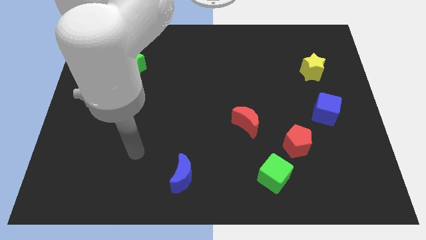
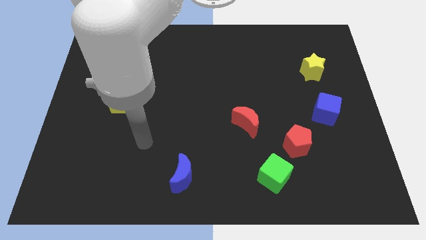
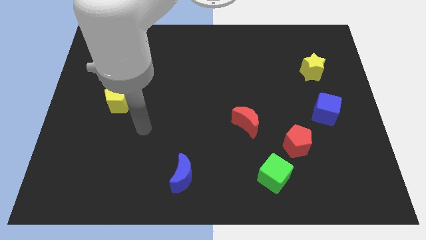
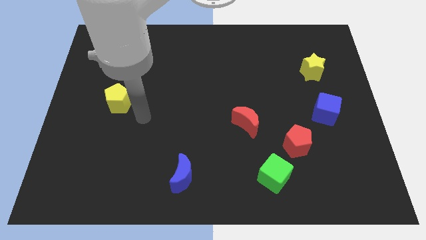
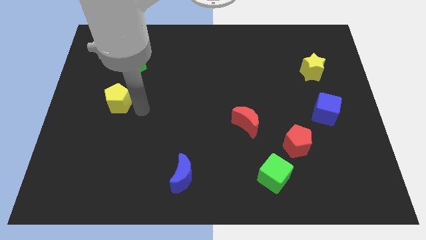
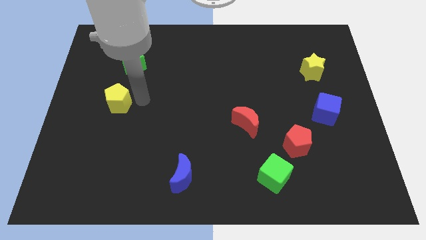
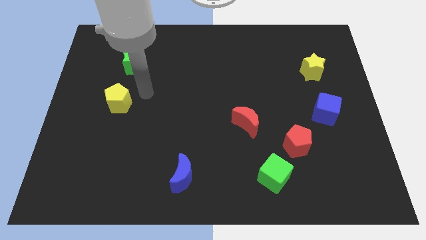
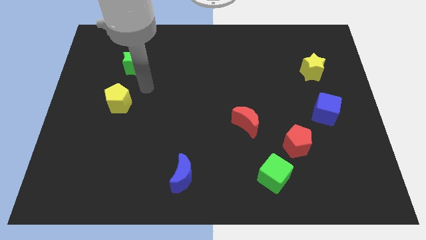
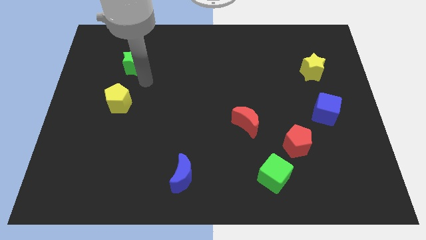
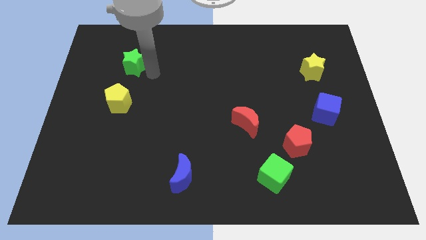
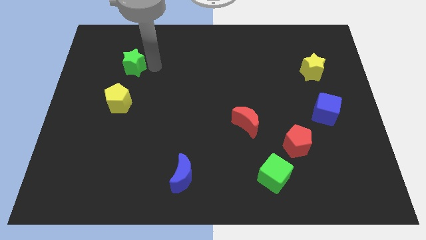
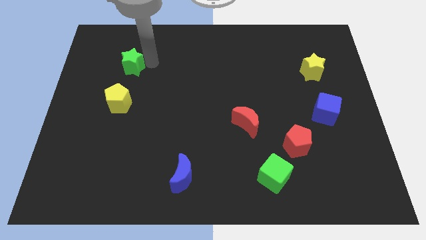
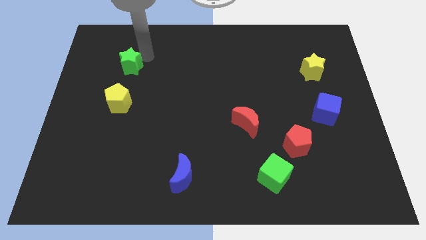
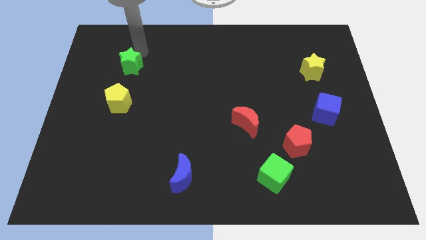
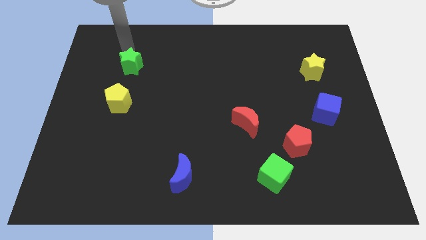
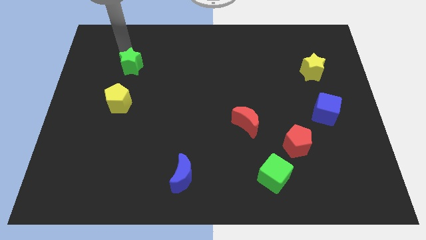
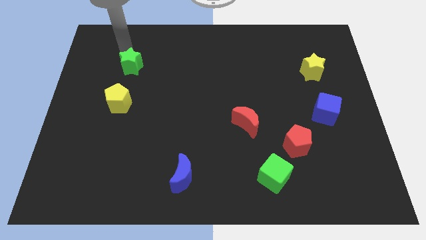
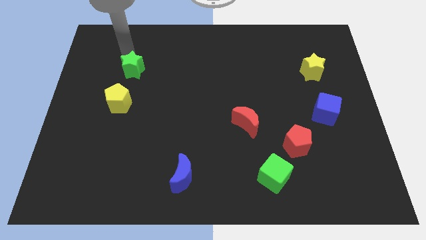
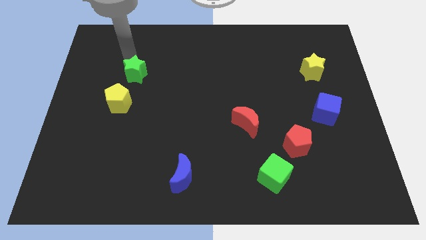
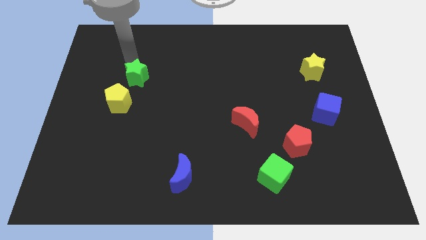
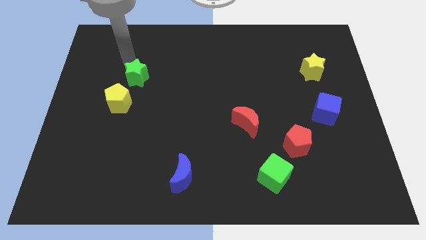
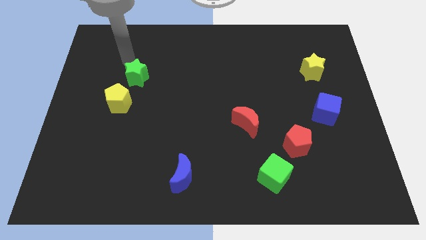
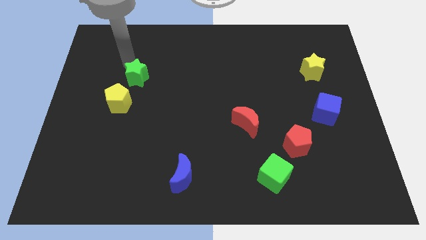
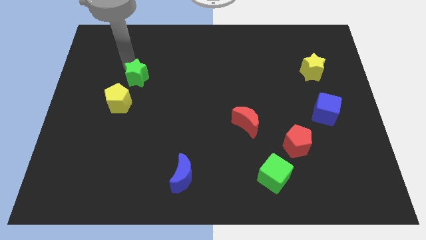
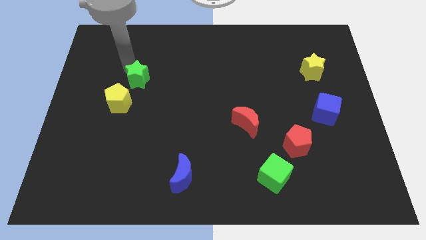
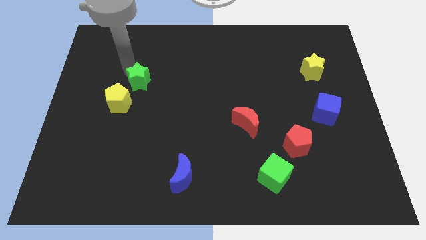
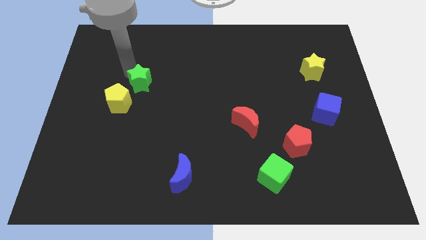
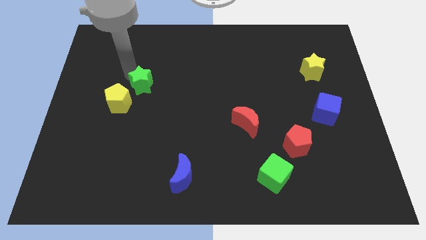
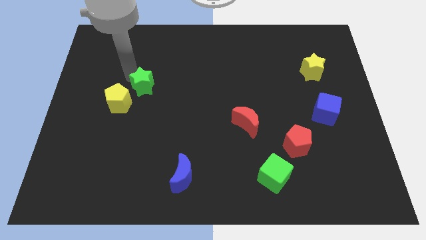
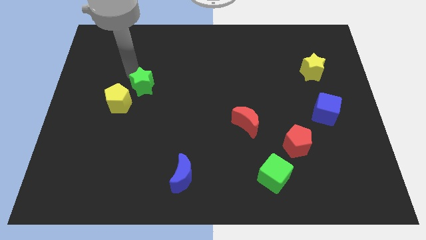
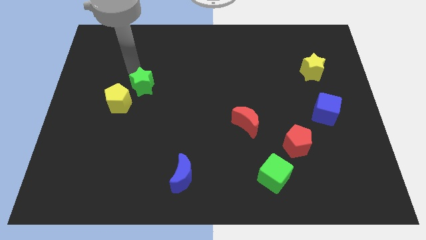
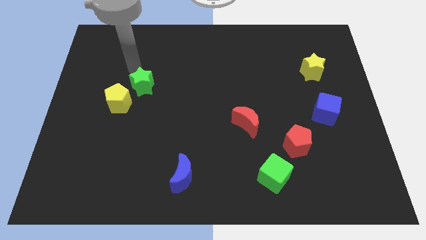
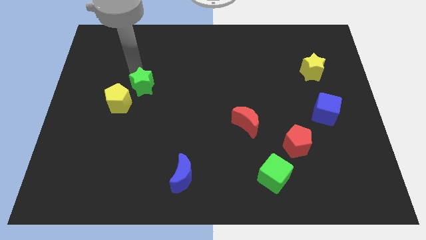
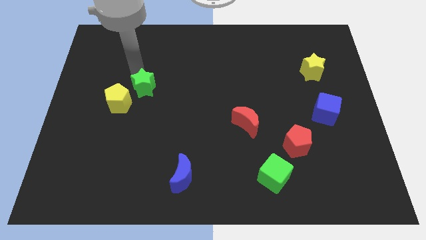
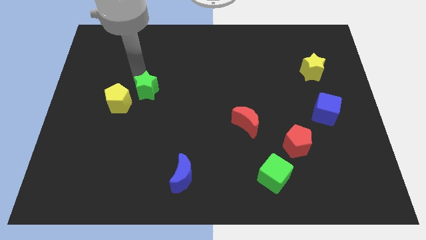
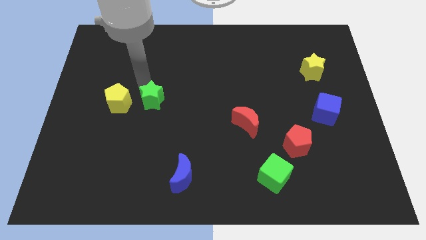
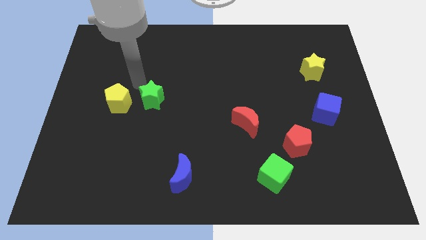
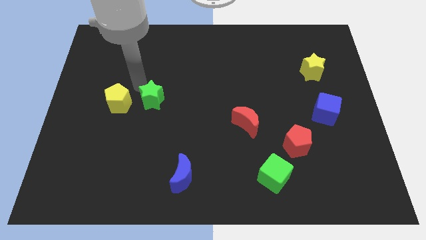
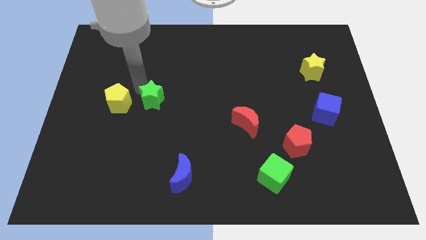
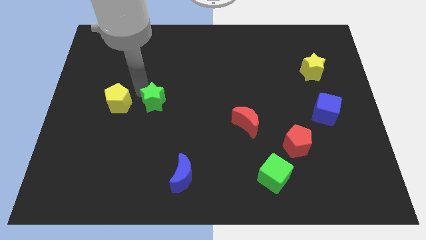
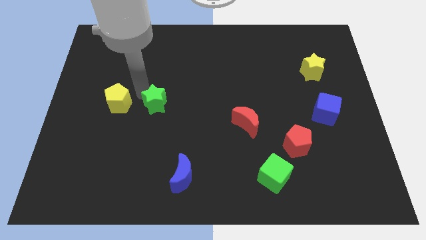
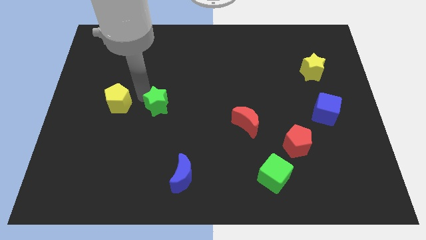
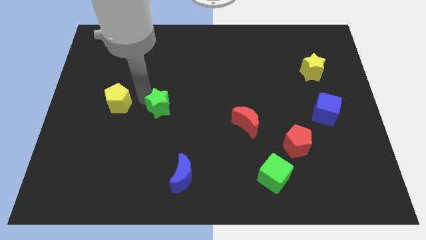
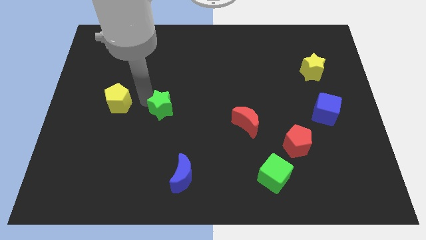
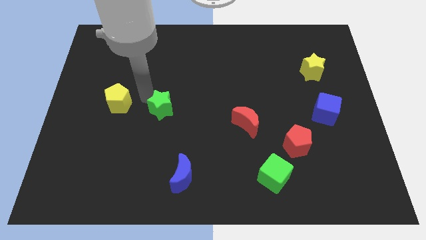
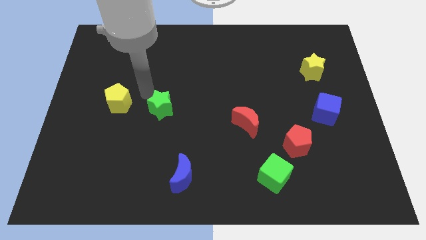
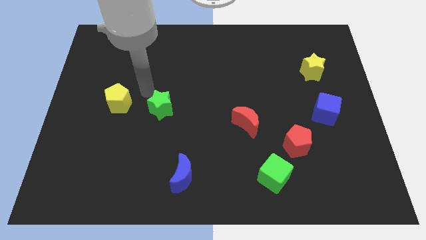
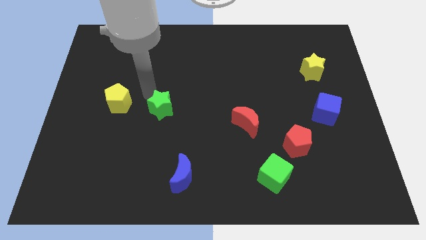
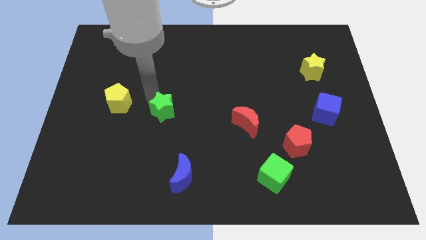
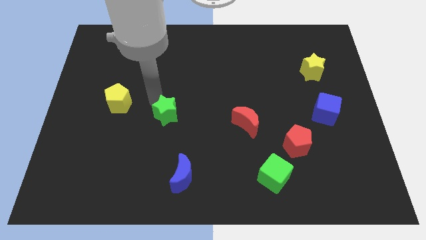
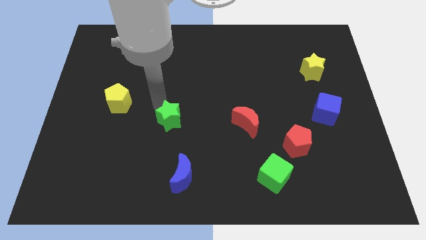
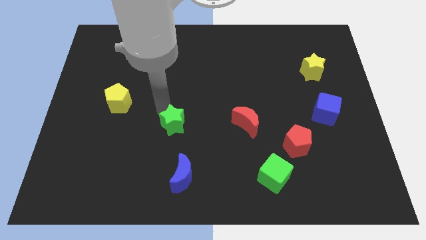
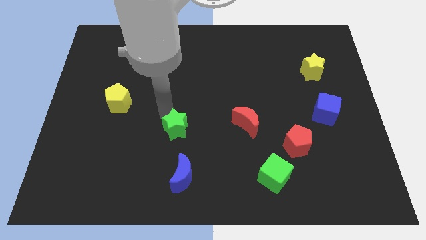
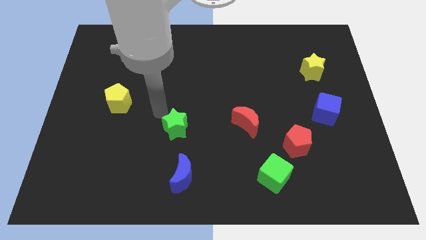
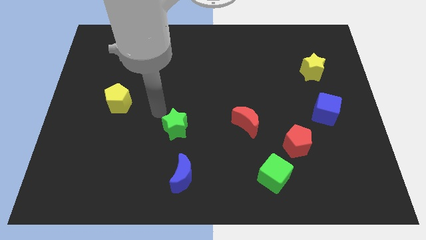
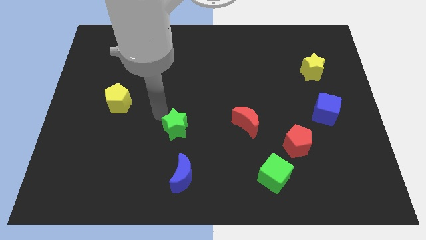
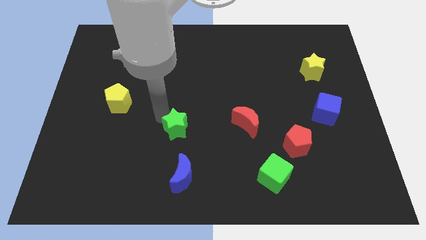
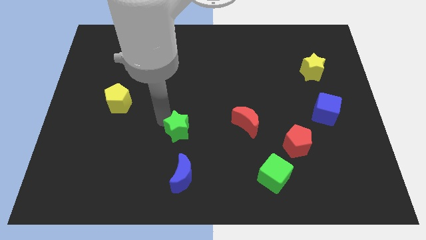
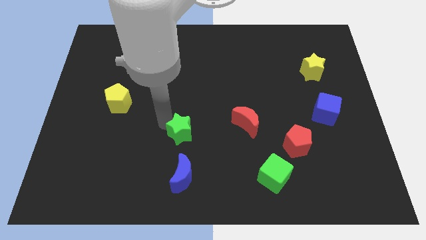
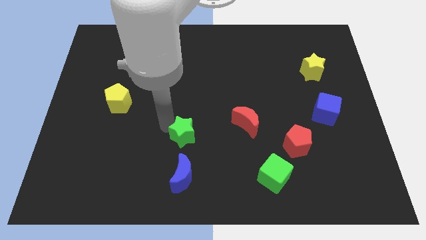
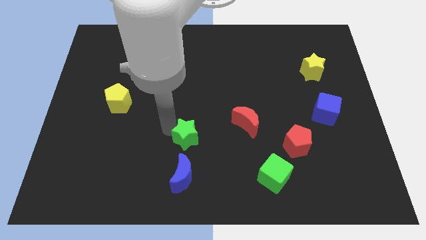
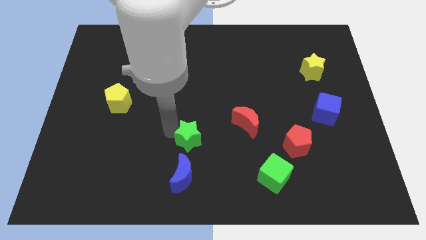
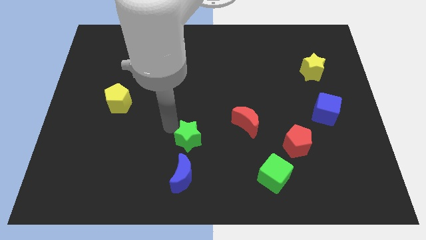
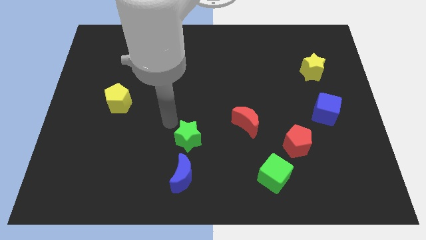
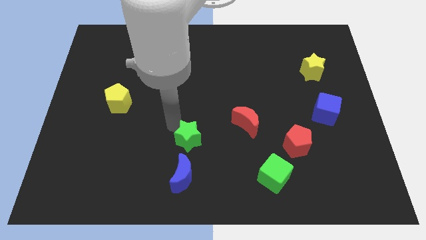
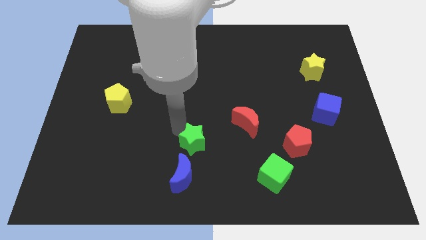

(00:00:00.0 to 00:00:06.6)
push the green star to the top right side of the blue moon
